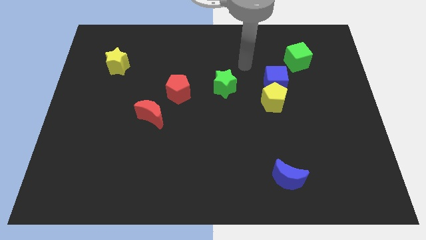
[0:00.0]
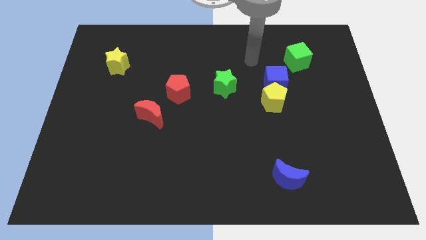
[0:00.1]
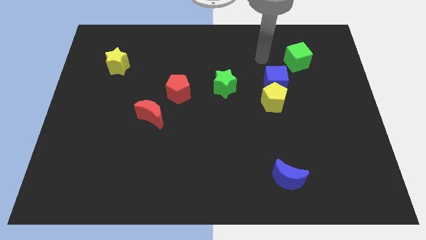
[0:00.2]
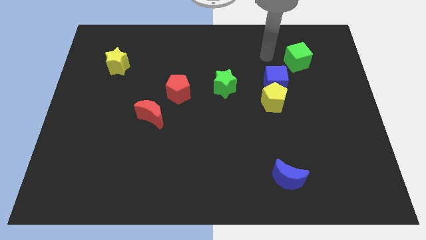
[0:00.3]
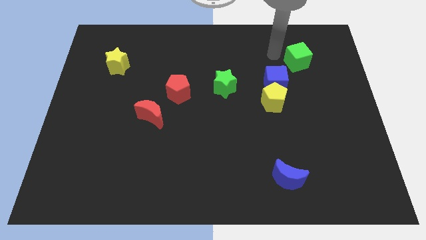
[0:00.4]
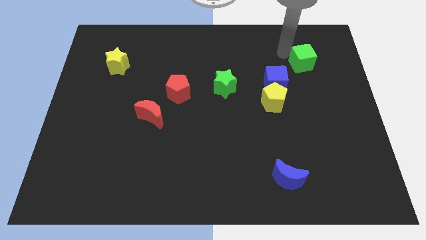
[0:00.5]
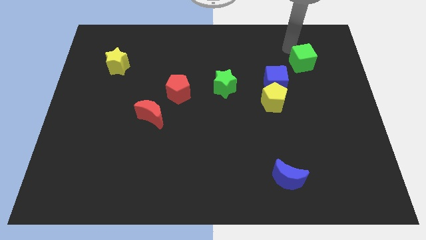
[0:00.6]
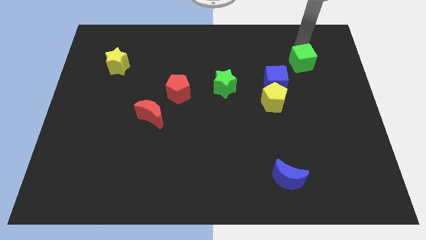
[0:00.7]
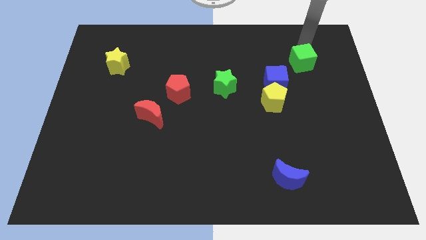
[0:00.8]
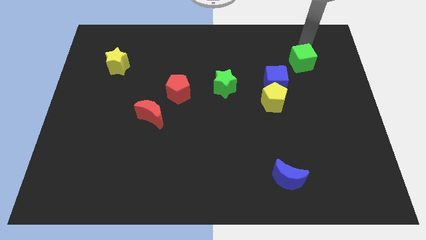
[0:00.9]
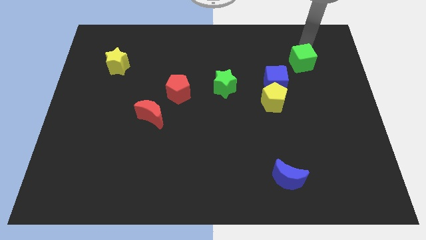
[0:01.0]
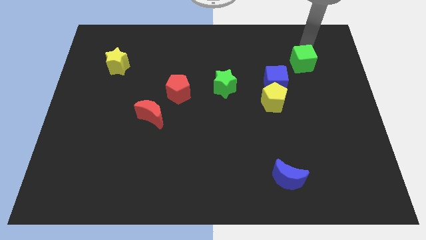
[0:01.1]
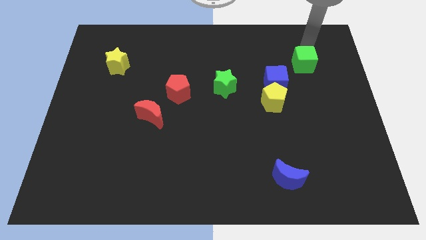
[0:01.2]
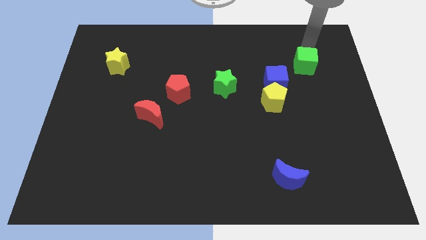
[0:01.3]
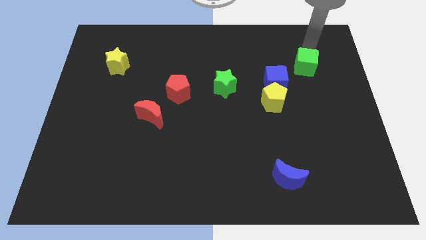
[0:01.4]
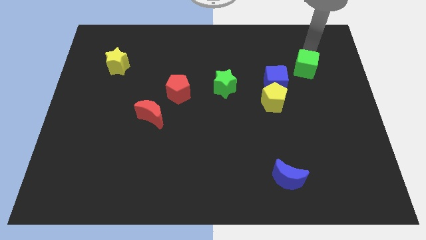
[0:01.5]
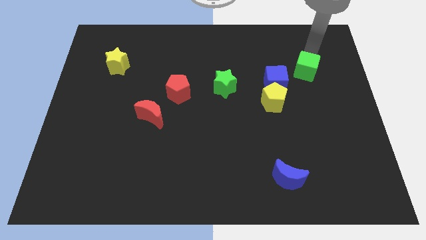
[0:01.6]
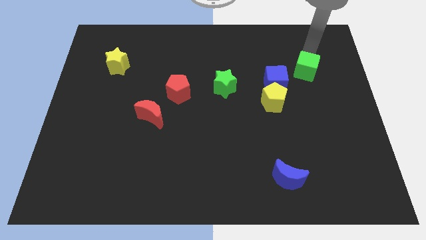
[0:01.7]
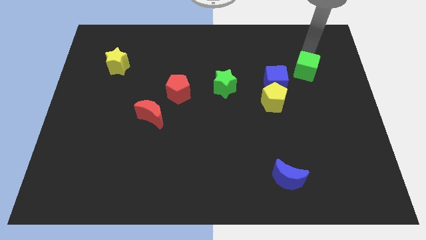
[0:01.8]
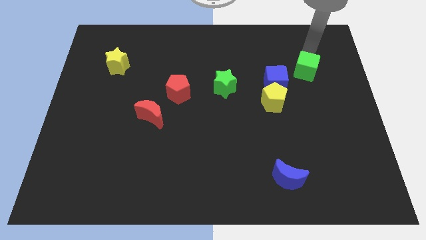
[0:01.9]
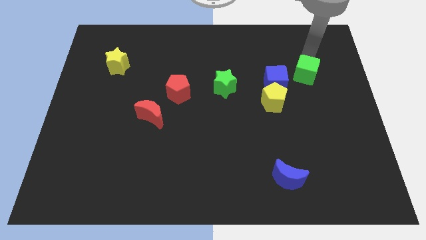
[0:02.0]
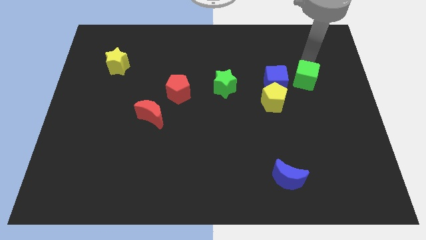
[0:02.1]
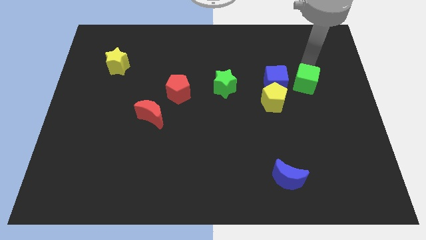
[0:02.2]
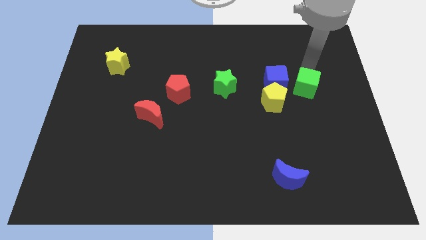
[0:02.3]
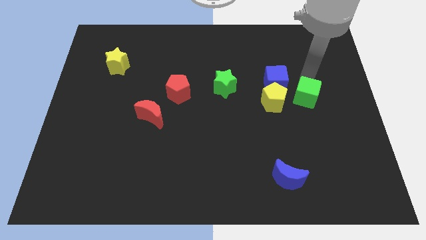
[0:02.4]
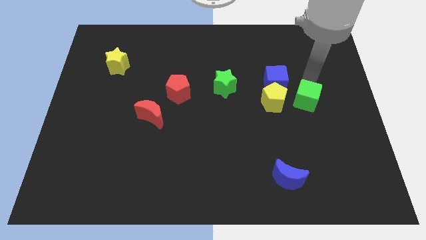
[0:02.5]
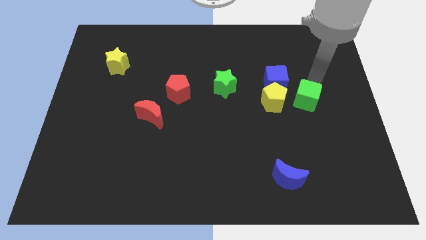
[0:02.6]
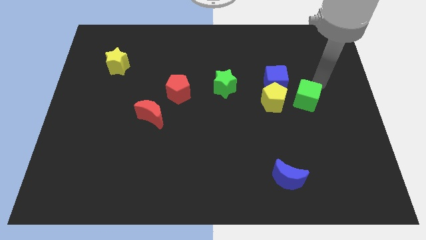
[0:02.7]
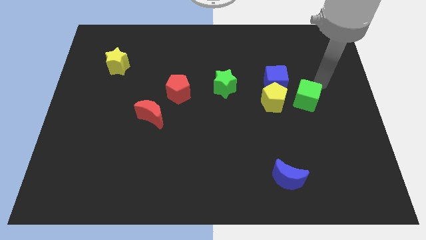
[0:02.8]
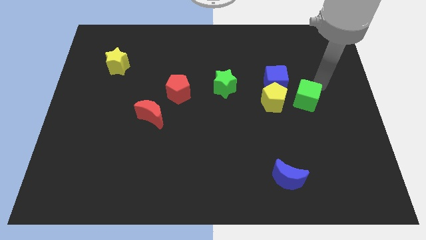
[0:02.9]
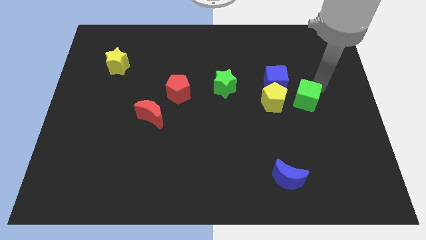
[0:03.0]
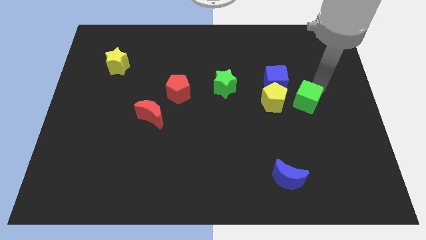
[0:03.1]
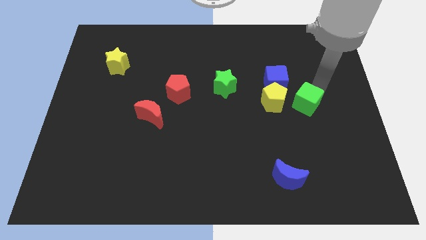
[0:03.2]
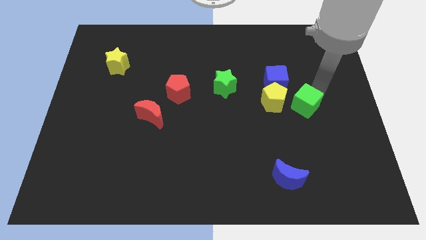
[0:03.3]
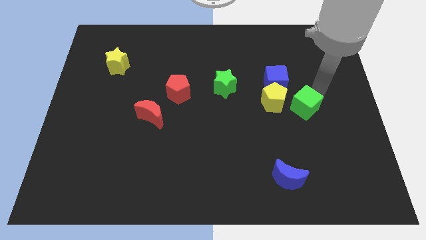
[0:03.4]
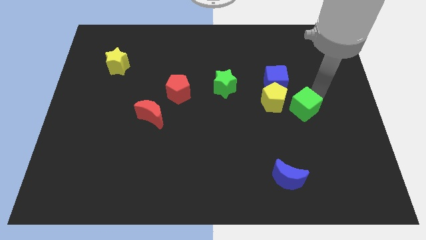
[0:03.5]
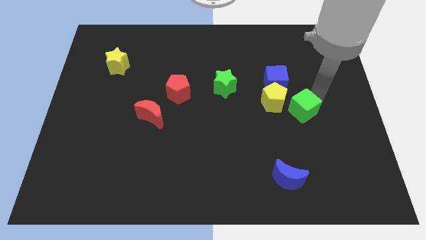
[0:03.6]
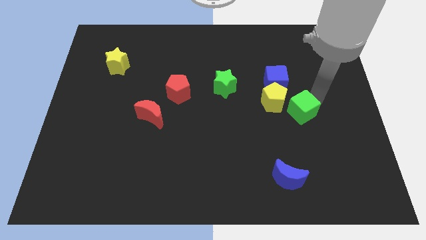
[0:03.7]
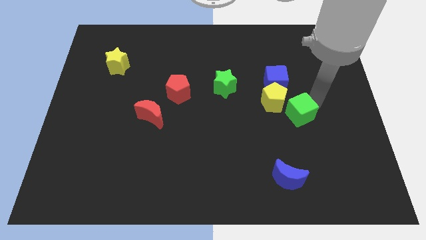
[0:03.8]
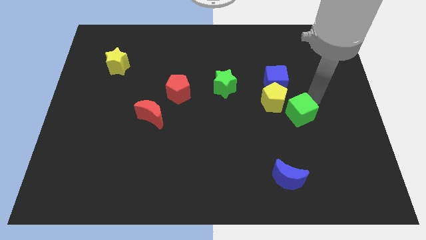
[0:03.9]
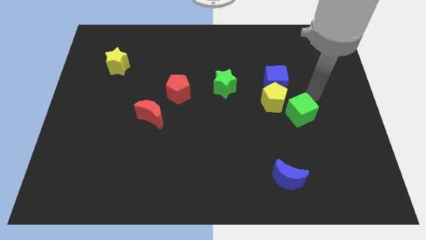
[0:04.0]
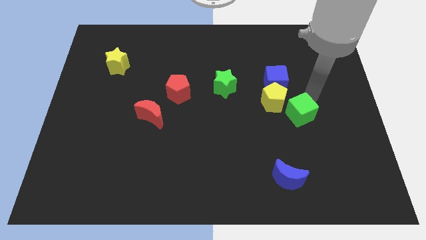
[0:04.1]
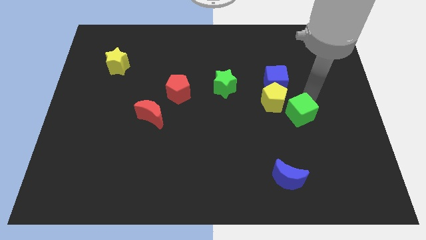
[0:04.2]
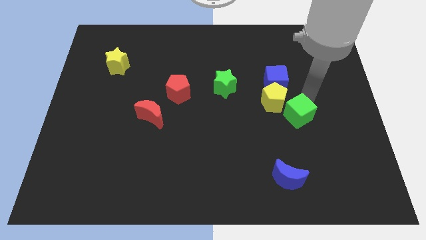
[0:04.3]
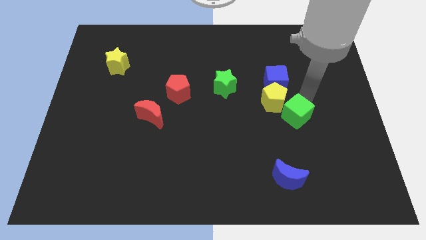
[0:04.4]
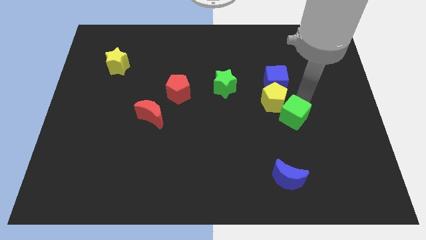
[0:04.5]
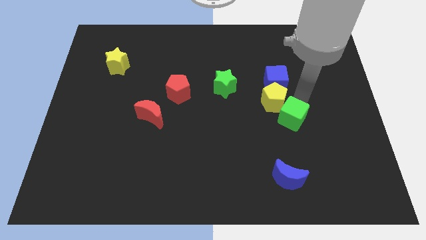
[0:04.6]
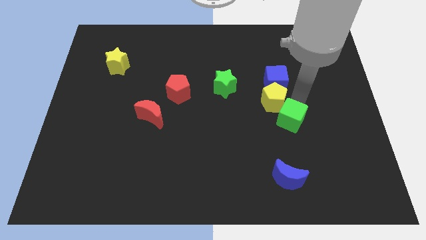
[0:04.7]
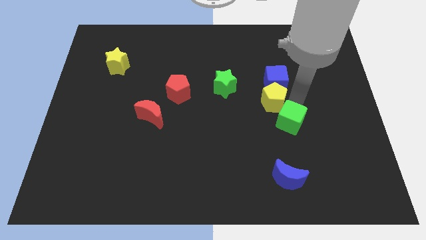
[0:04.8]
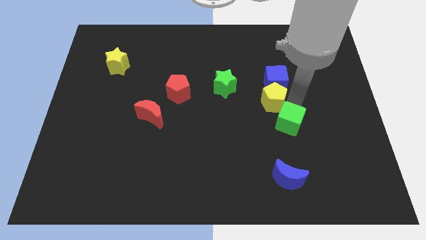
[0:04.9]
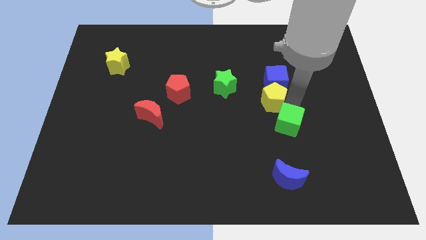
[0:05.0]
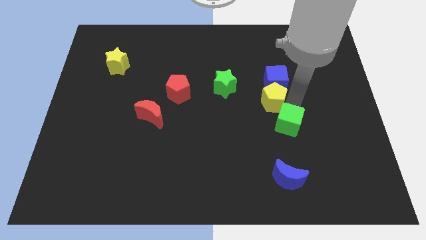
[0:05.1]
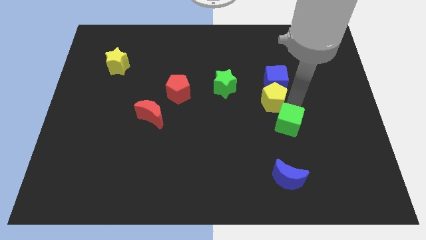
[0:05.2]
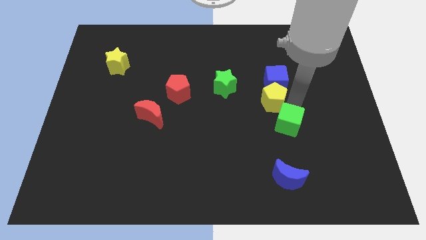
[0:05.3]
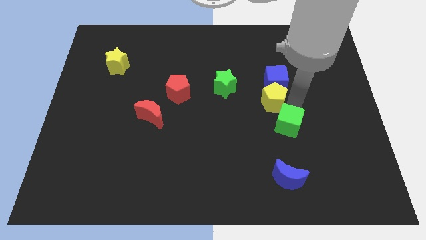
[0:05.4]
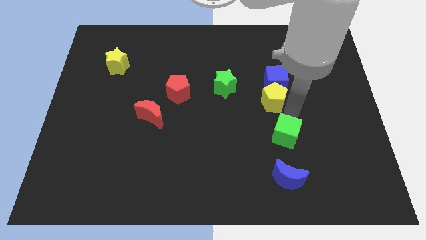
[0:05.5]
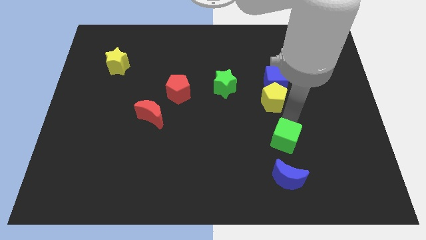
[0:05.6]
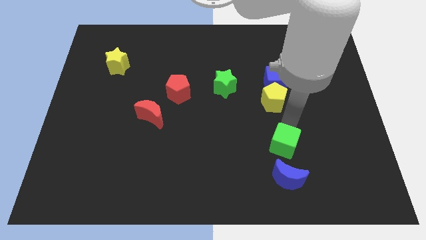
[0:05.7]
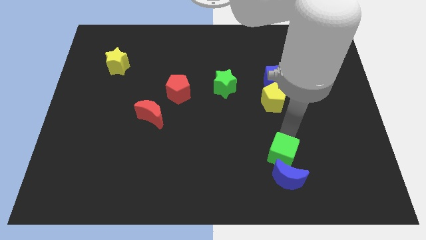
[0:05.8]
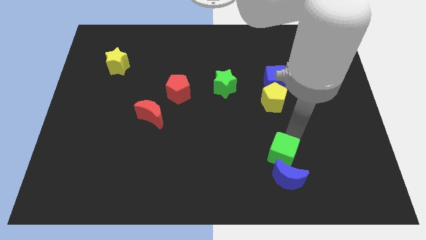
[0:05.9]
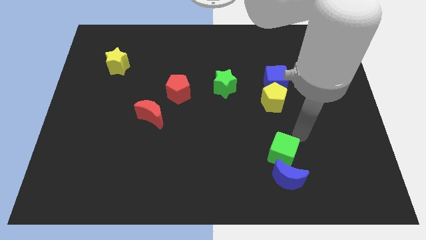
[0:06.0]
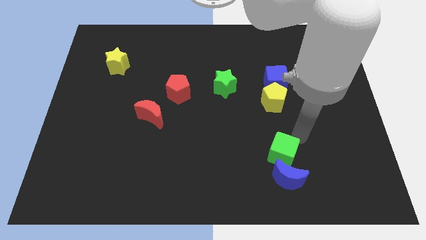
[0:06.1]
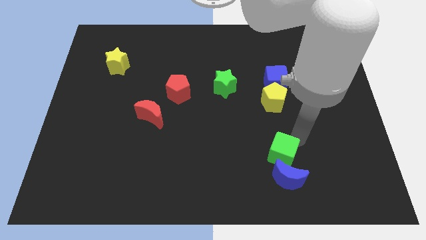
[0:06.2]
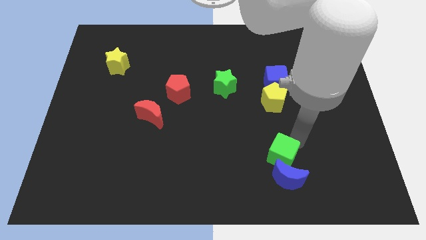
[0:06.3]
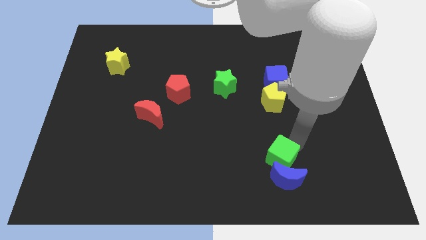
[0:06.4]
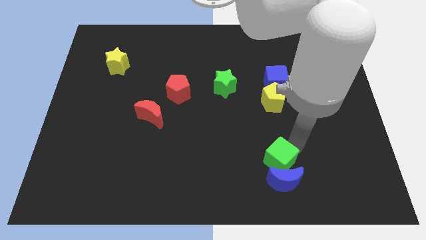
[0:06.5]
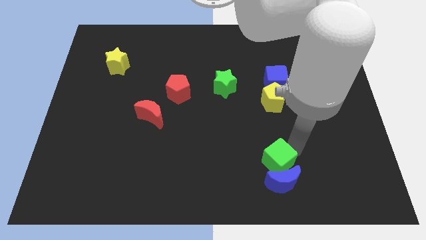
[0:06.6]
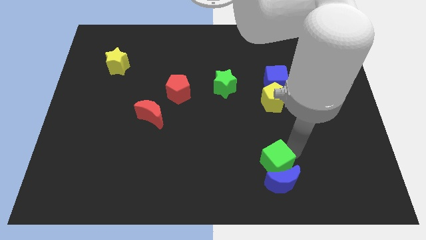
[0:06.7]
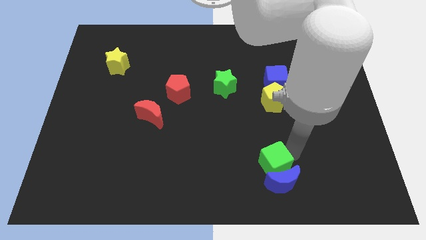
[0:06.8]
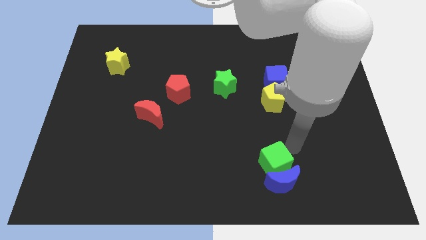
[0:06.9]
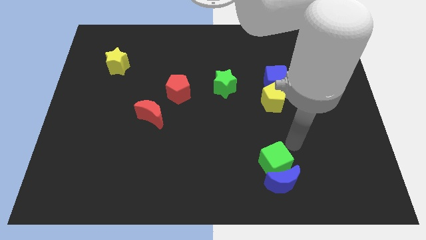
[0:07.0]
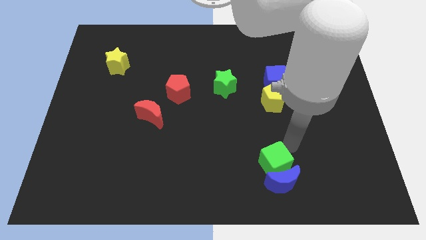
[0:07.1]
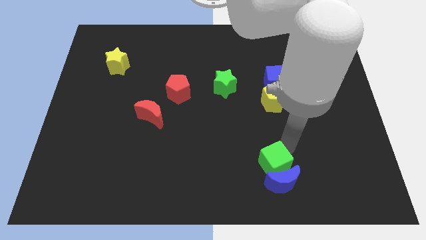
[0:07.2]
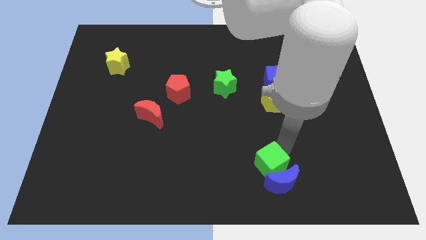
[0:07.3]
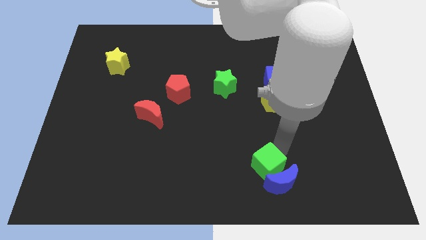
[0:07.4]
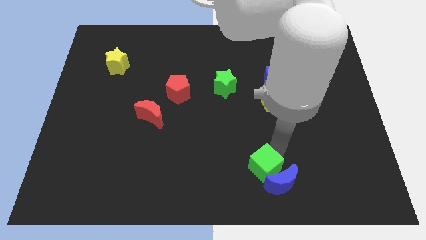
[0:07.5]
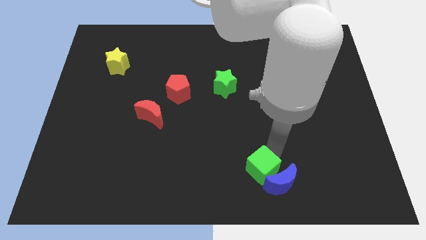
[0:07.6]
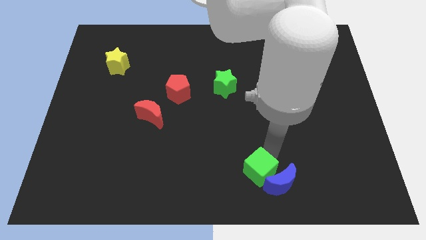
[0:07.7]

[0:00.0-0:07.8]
slide the green cube to the bottom side
